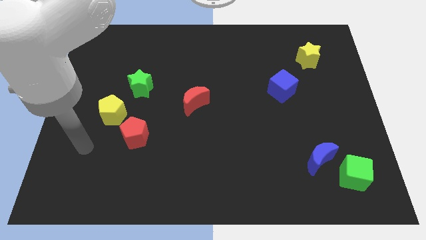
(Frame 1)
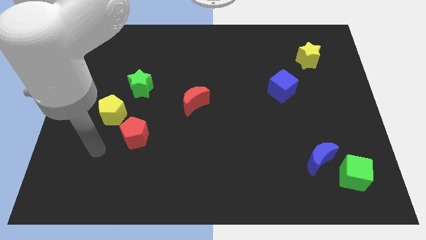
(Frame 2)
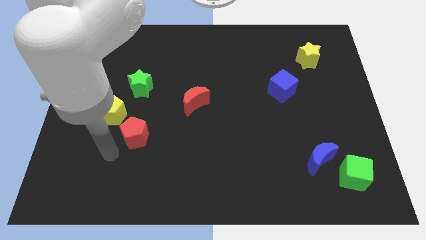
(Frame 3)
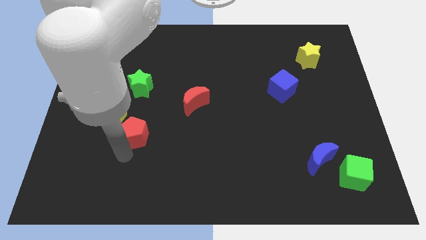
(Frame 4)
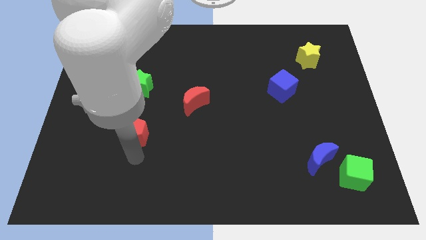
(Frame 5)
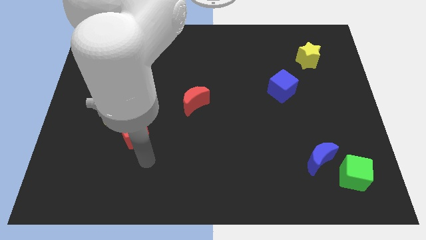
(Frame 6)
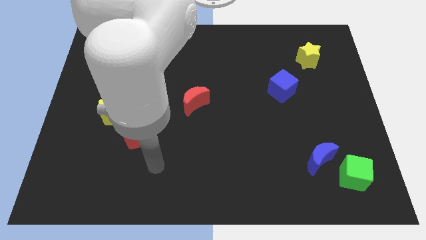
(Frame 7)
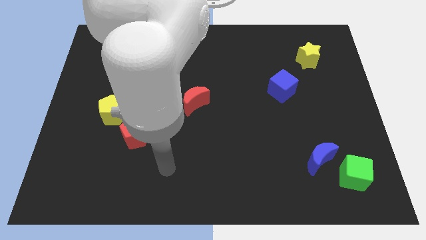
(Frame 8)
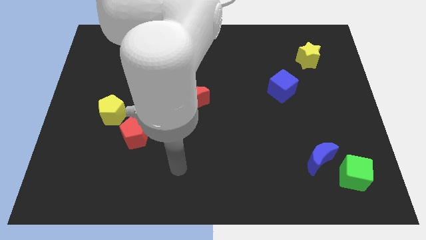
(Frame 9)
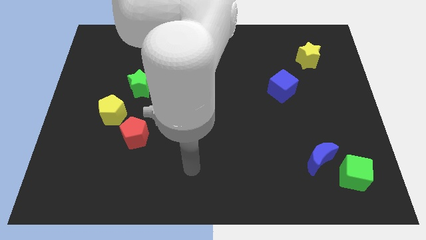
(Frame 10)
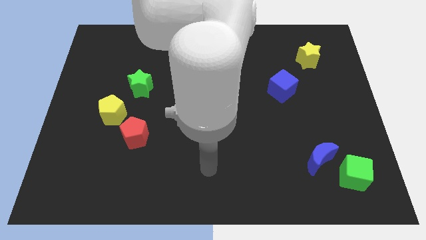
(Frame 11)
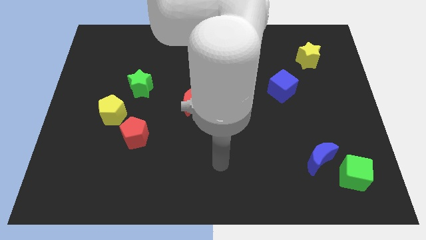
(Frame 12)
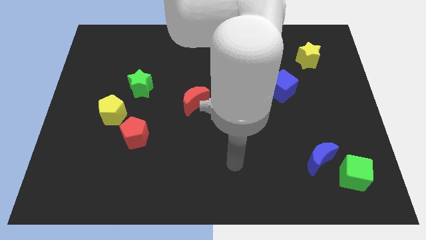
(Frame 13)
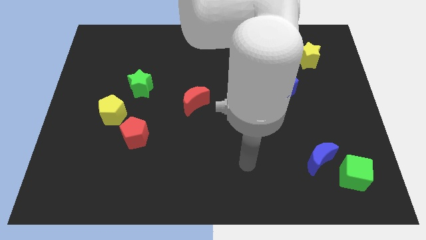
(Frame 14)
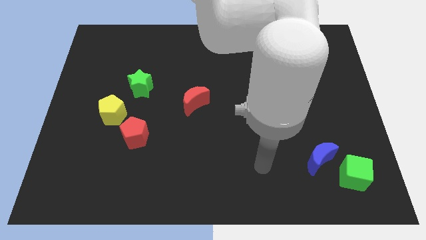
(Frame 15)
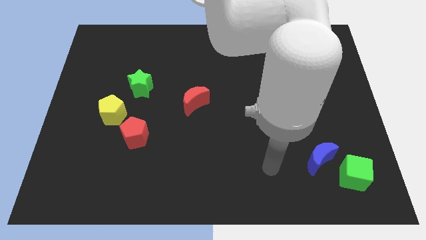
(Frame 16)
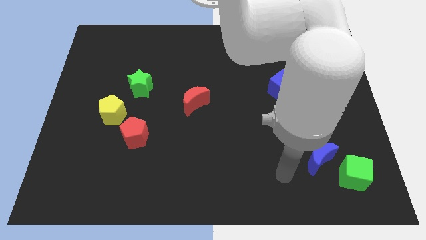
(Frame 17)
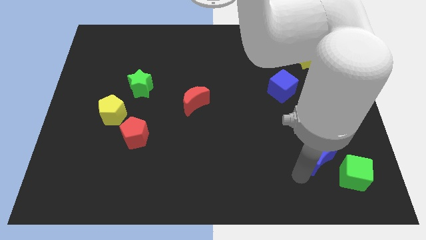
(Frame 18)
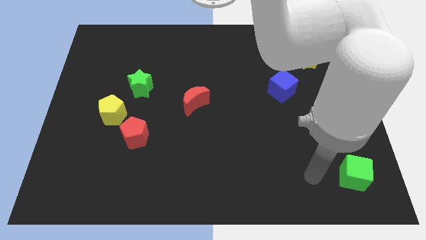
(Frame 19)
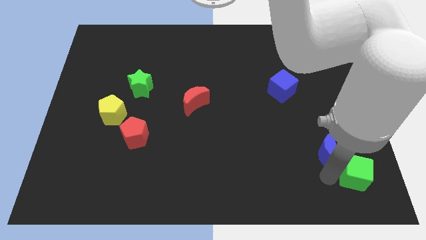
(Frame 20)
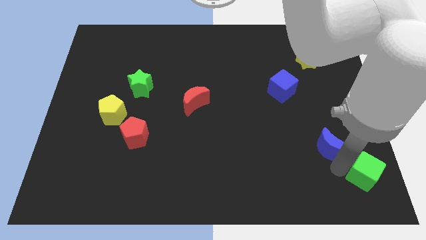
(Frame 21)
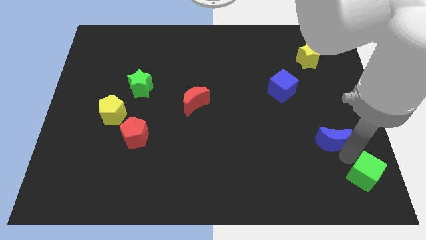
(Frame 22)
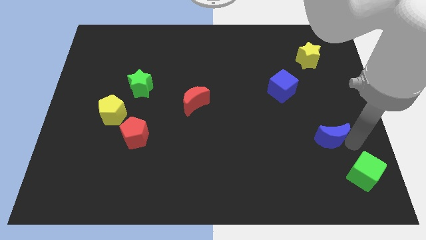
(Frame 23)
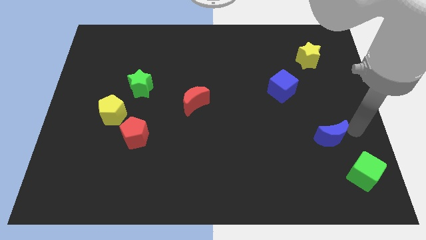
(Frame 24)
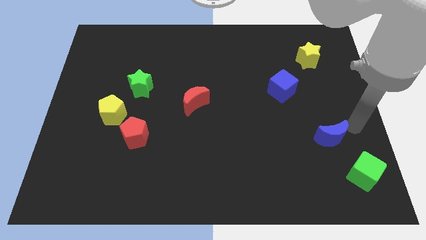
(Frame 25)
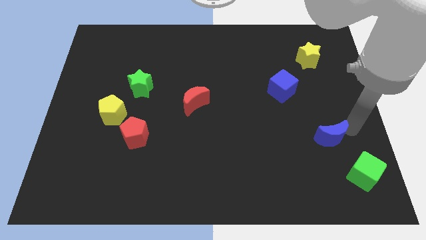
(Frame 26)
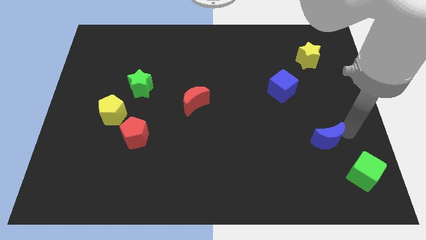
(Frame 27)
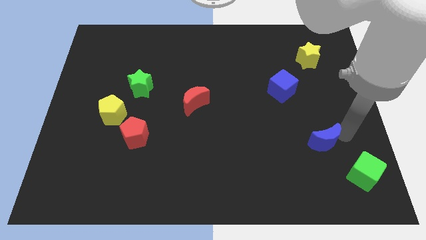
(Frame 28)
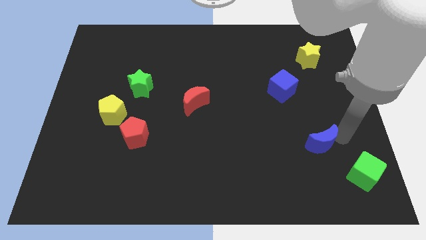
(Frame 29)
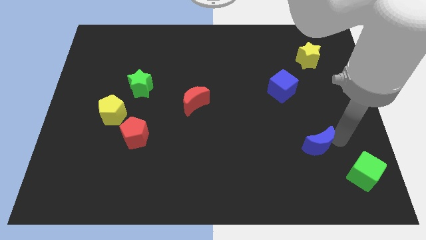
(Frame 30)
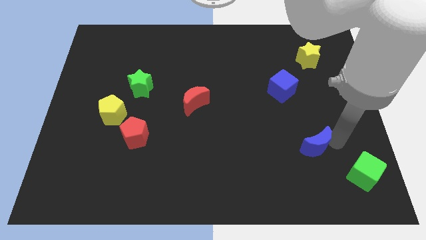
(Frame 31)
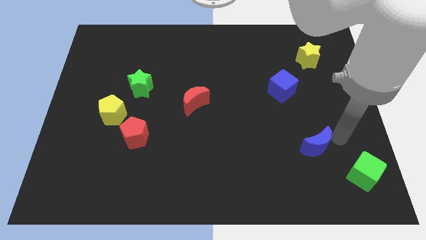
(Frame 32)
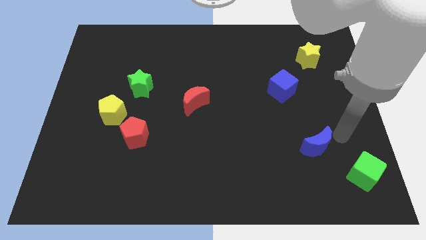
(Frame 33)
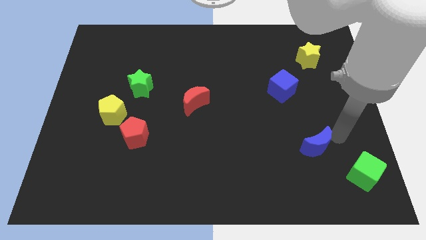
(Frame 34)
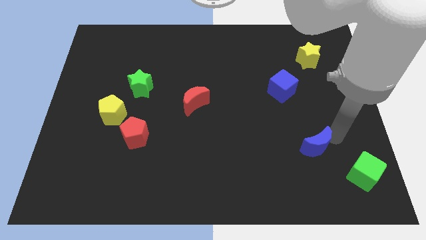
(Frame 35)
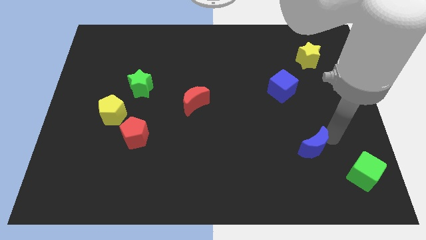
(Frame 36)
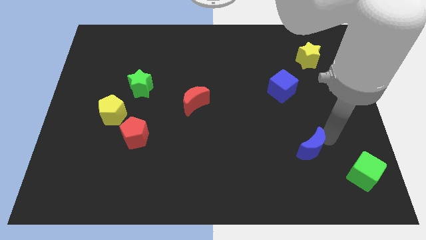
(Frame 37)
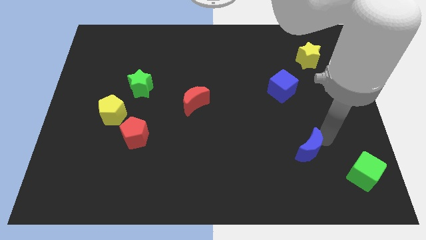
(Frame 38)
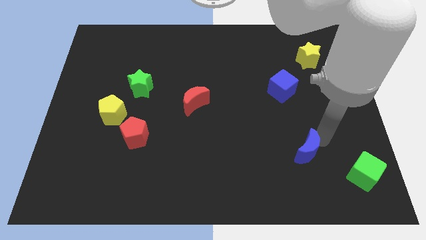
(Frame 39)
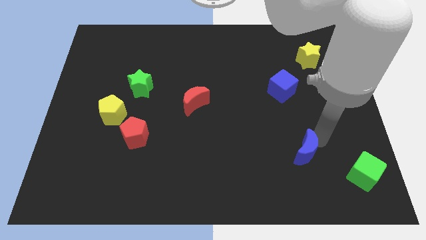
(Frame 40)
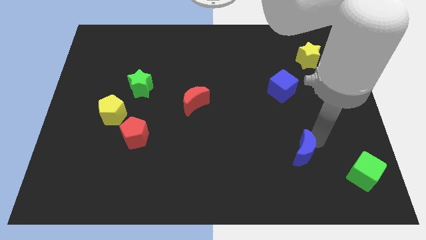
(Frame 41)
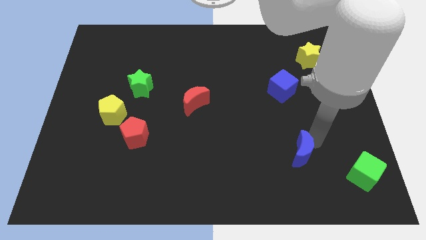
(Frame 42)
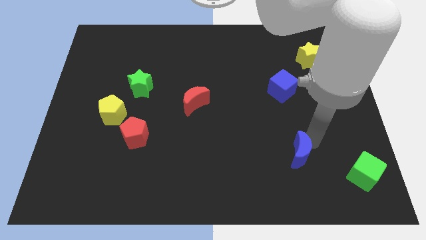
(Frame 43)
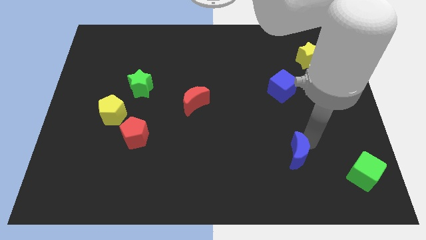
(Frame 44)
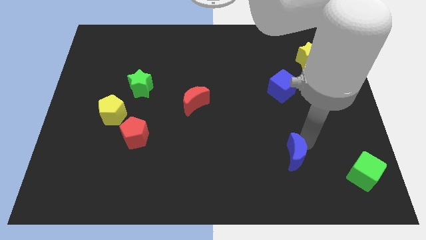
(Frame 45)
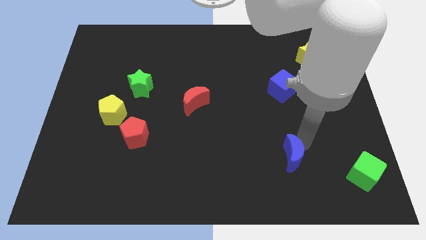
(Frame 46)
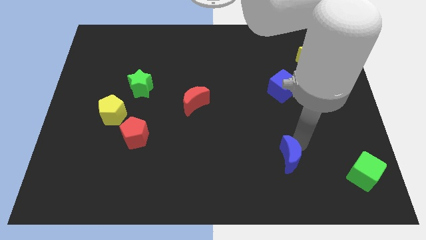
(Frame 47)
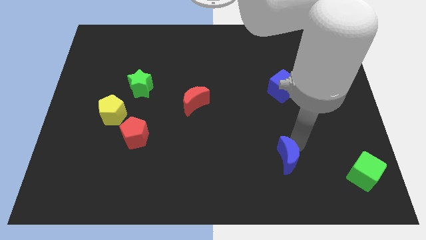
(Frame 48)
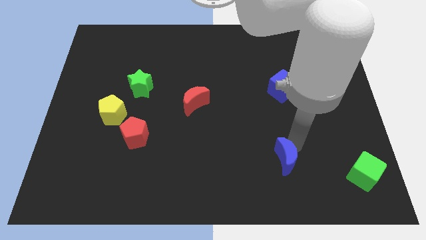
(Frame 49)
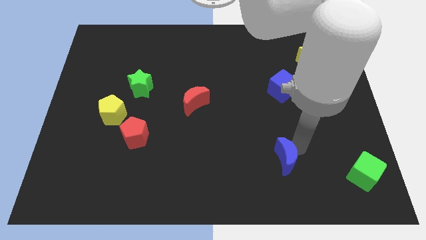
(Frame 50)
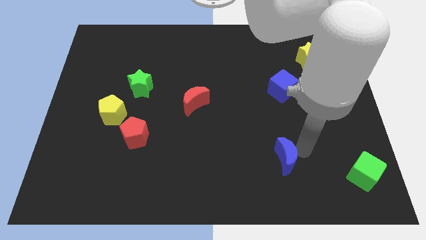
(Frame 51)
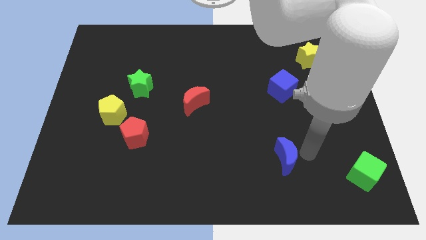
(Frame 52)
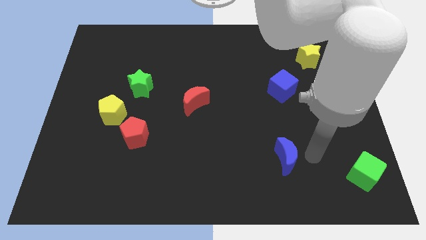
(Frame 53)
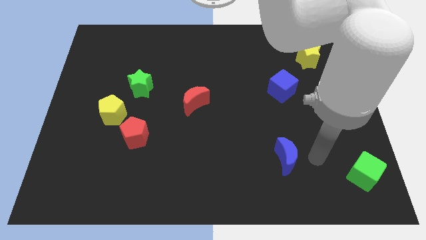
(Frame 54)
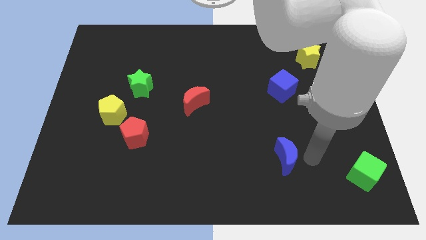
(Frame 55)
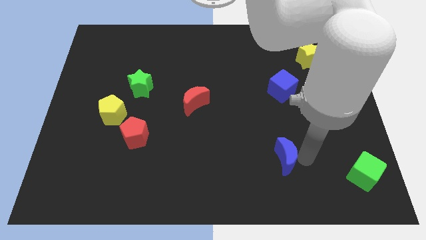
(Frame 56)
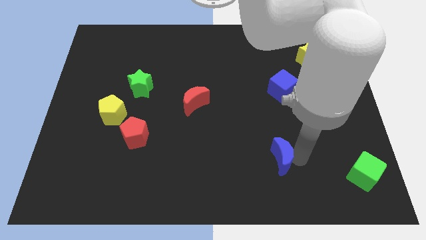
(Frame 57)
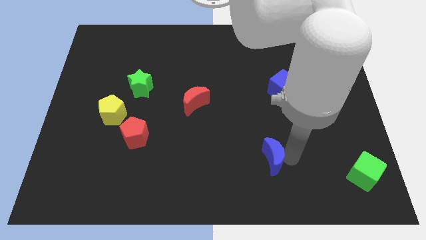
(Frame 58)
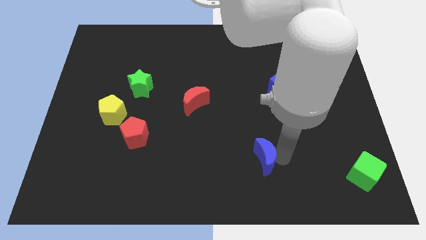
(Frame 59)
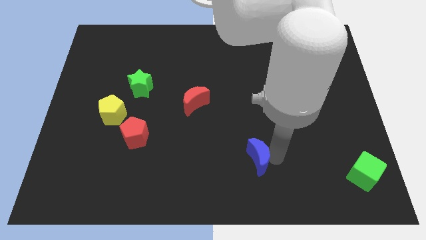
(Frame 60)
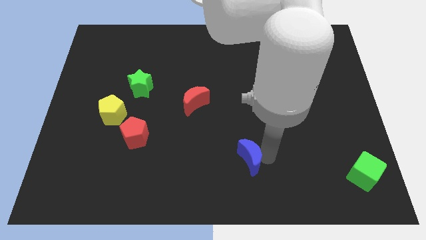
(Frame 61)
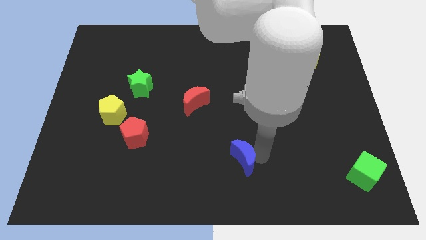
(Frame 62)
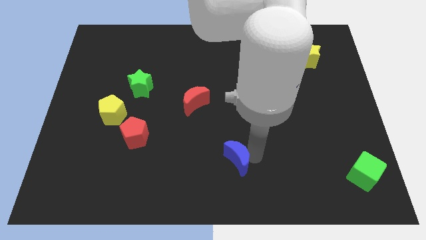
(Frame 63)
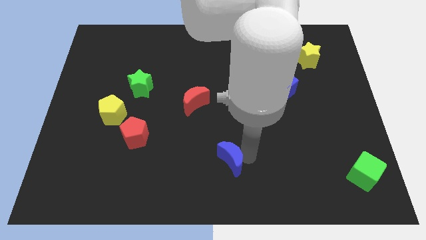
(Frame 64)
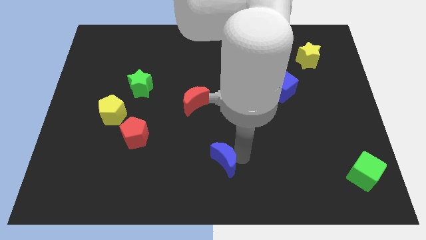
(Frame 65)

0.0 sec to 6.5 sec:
push the blue moon to the left

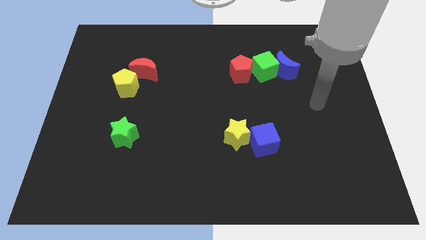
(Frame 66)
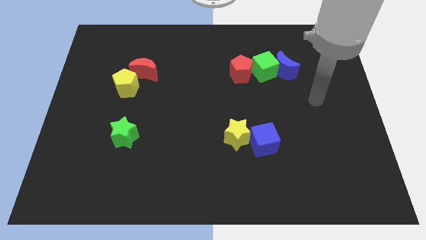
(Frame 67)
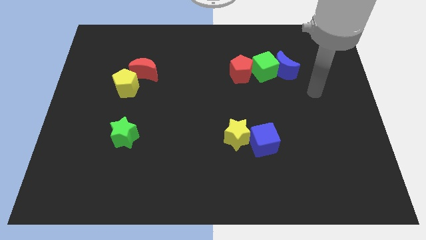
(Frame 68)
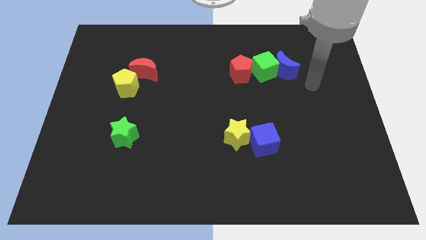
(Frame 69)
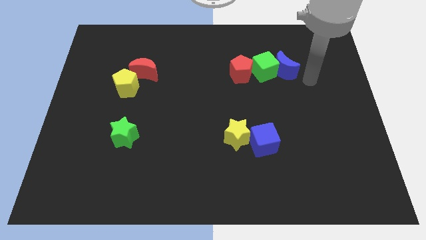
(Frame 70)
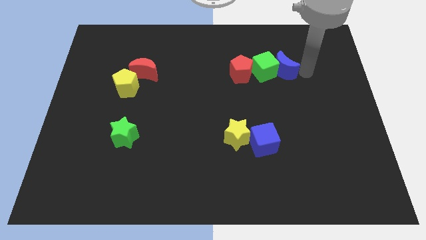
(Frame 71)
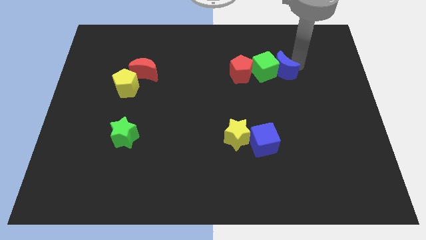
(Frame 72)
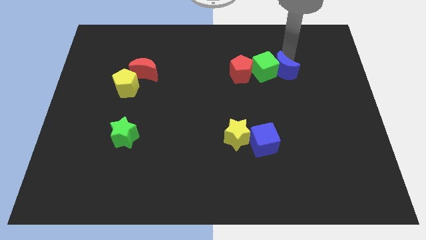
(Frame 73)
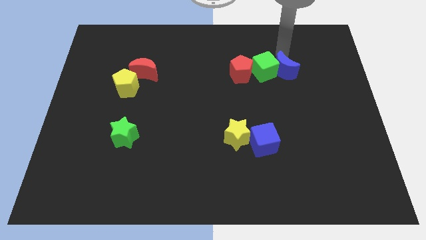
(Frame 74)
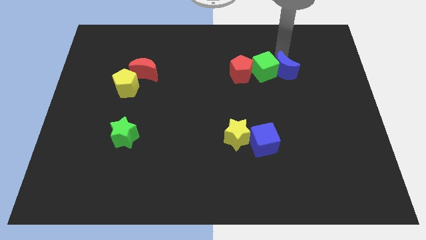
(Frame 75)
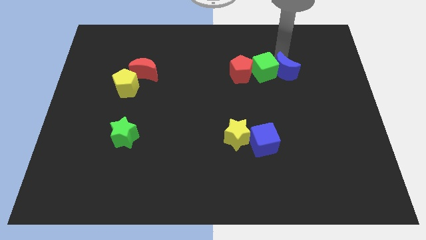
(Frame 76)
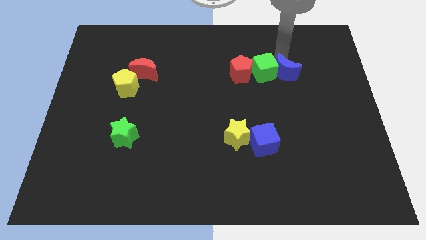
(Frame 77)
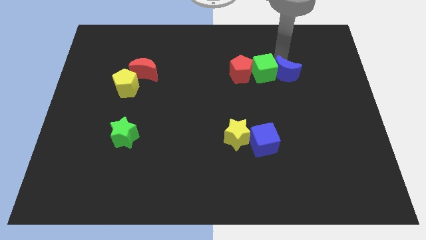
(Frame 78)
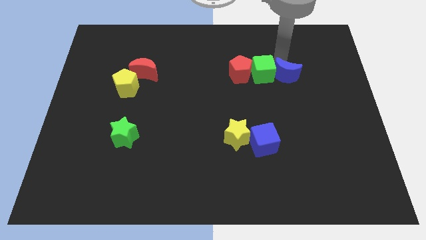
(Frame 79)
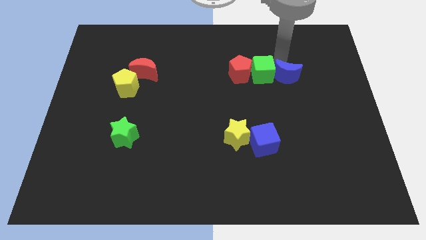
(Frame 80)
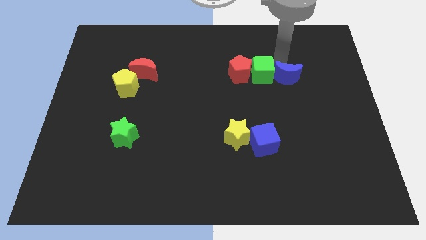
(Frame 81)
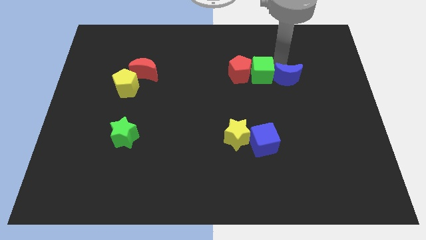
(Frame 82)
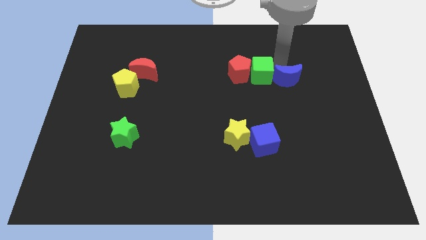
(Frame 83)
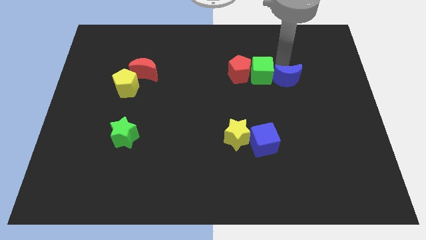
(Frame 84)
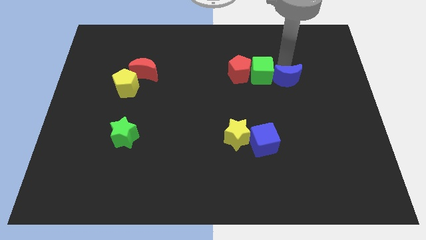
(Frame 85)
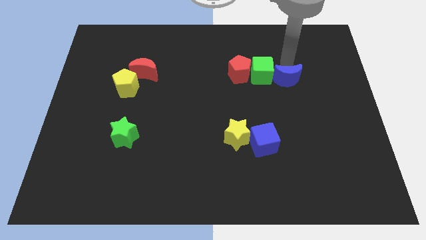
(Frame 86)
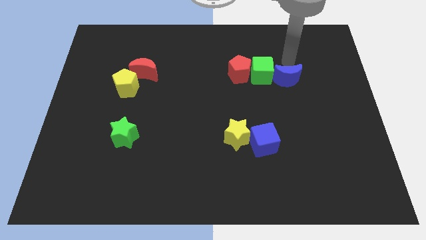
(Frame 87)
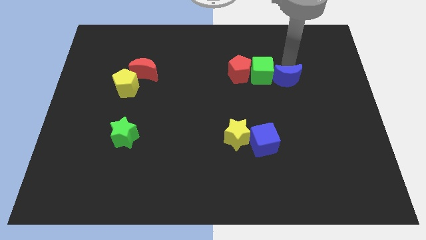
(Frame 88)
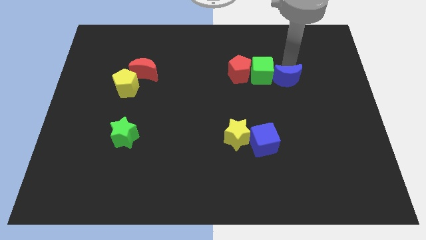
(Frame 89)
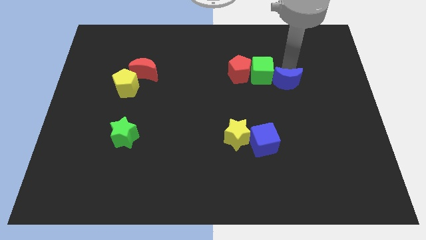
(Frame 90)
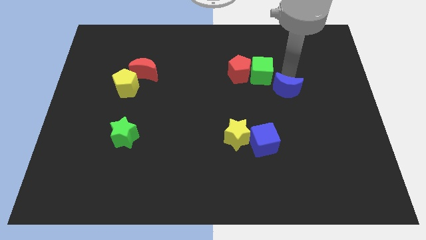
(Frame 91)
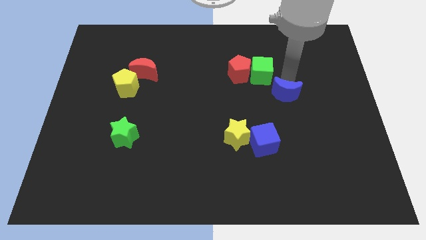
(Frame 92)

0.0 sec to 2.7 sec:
slightly slide the blue moon downwards
